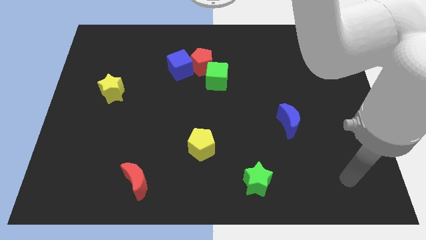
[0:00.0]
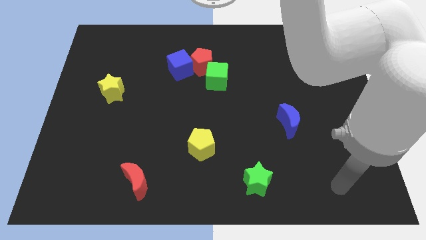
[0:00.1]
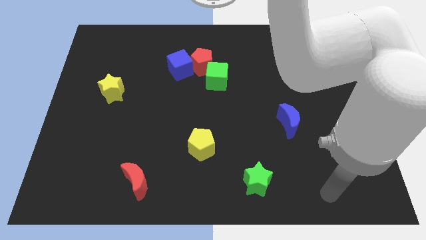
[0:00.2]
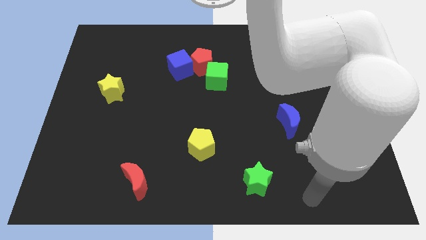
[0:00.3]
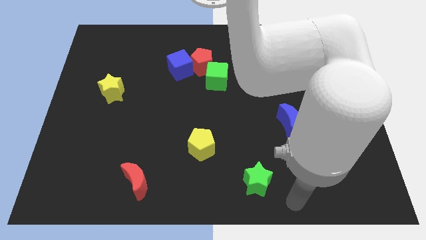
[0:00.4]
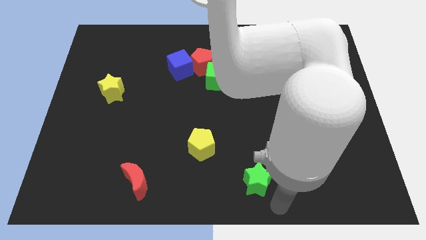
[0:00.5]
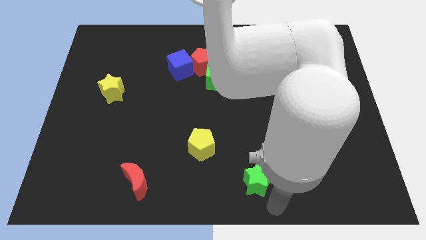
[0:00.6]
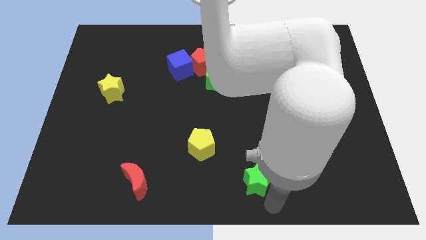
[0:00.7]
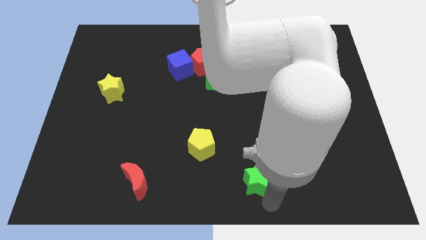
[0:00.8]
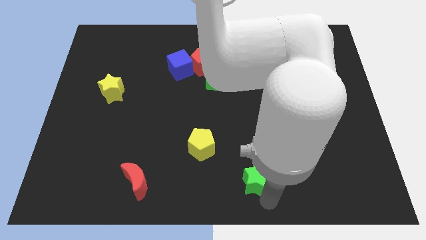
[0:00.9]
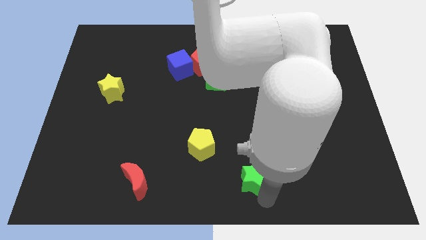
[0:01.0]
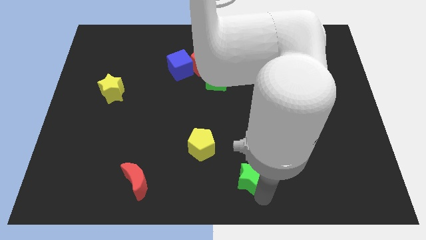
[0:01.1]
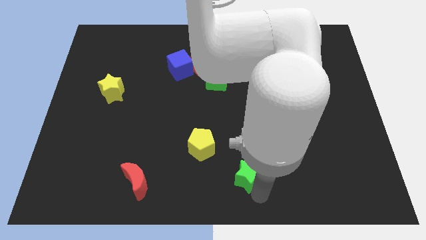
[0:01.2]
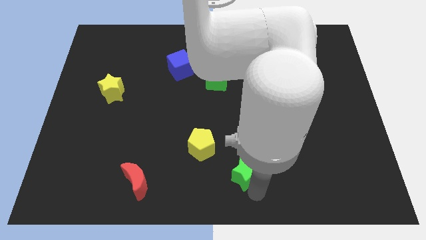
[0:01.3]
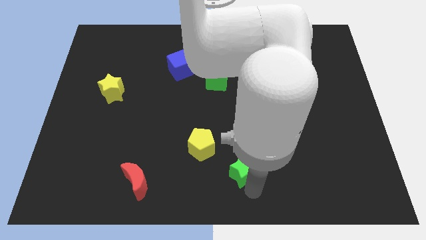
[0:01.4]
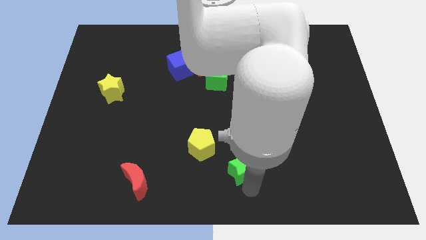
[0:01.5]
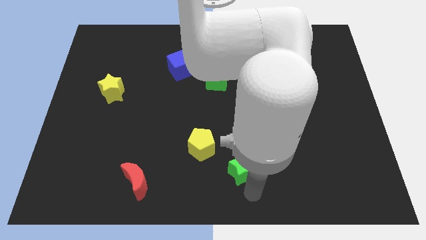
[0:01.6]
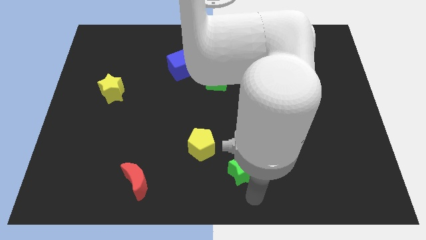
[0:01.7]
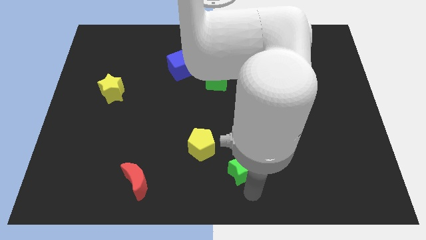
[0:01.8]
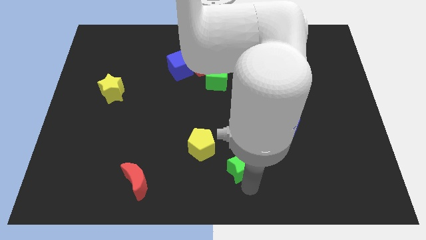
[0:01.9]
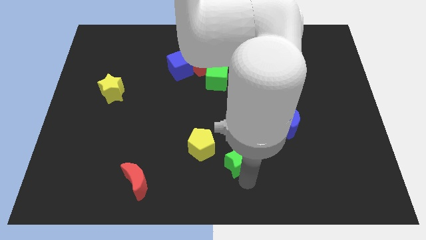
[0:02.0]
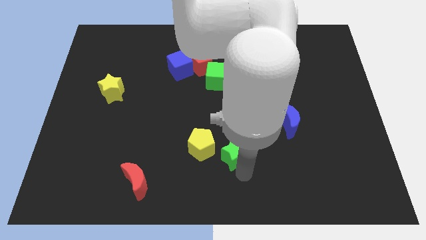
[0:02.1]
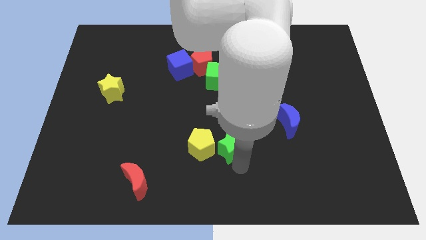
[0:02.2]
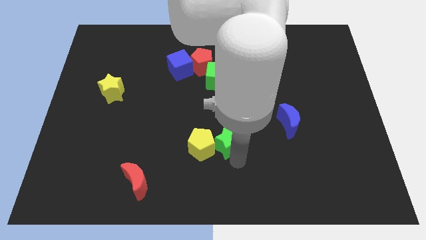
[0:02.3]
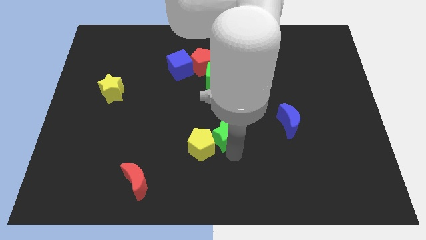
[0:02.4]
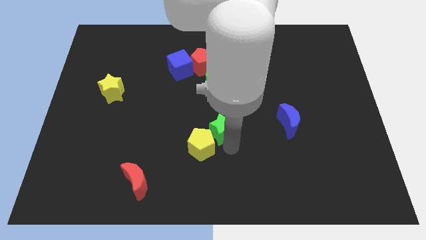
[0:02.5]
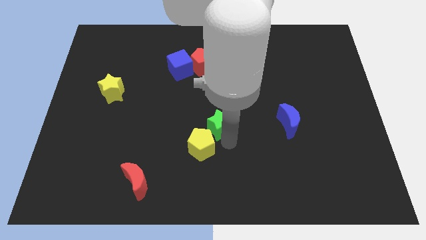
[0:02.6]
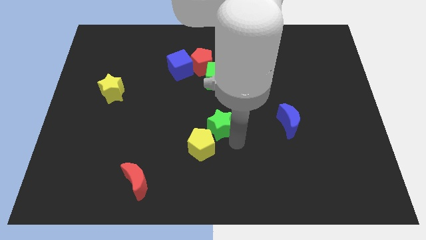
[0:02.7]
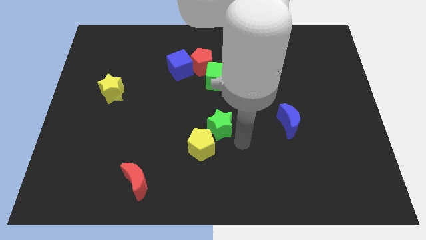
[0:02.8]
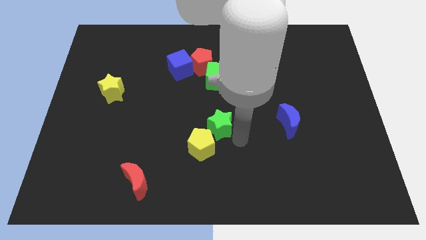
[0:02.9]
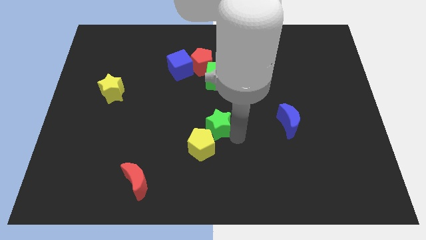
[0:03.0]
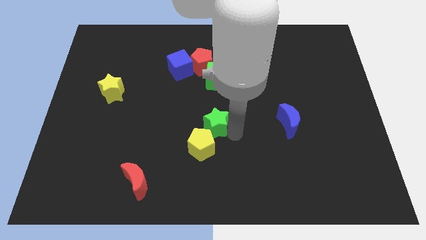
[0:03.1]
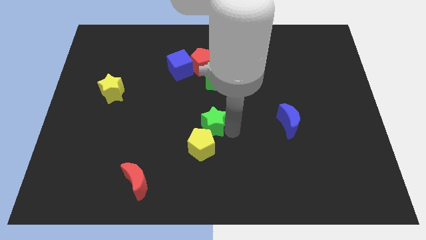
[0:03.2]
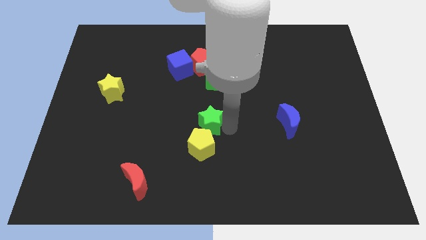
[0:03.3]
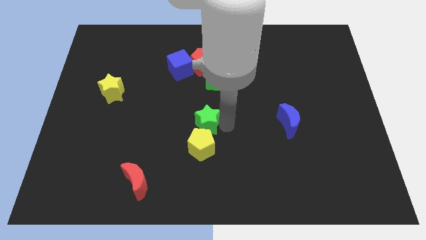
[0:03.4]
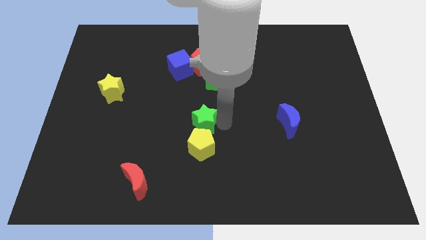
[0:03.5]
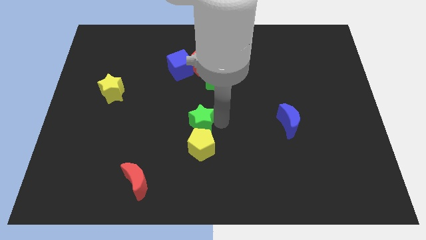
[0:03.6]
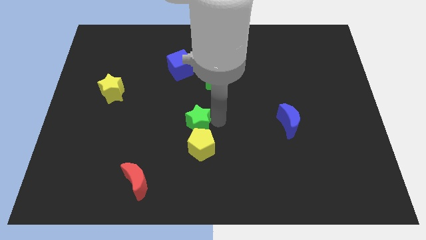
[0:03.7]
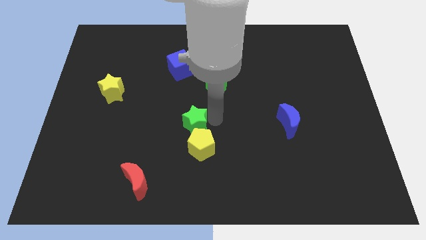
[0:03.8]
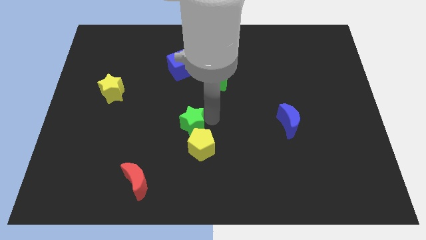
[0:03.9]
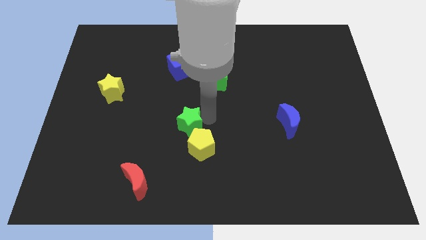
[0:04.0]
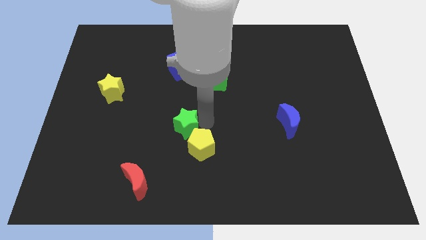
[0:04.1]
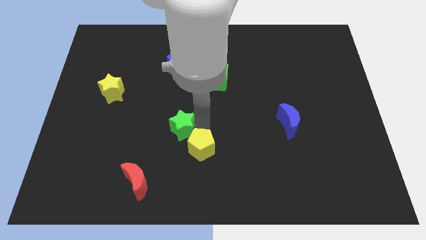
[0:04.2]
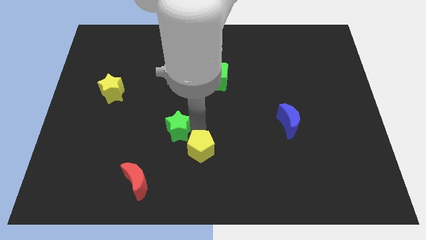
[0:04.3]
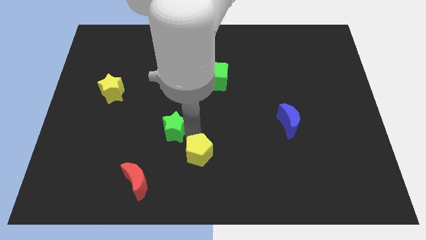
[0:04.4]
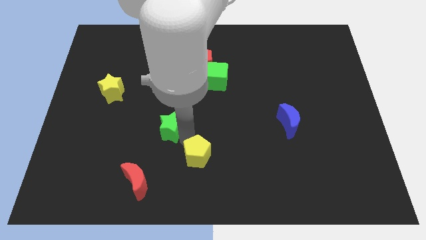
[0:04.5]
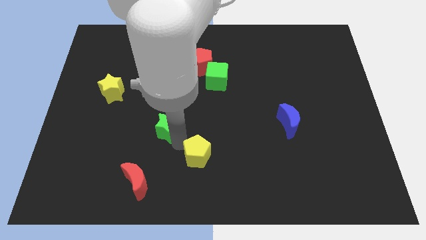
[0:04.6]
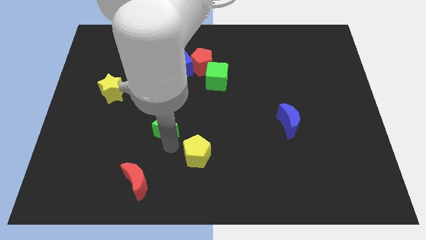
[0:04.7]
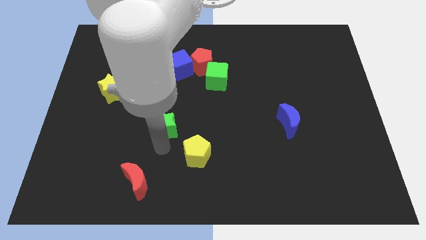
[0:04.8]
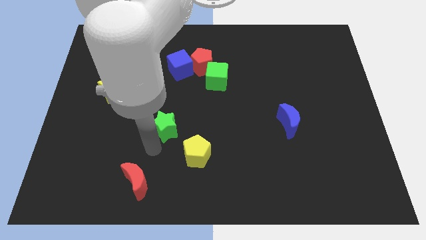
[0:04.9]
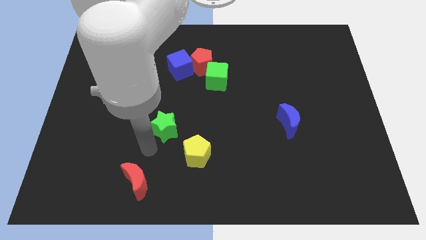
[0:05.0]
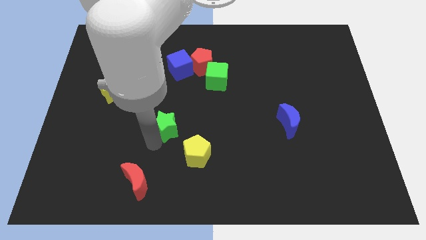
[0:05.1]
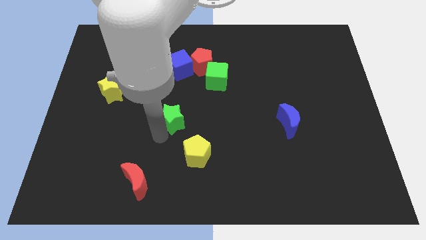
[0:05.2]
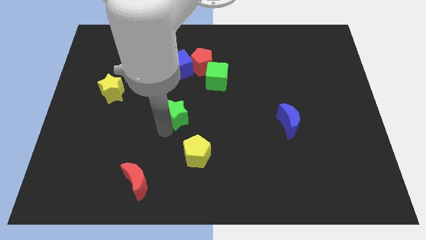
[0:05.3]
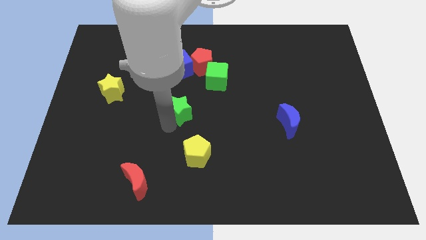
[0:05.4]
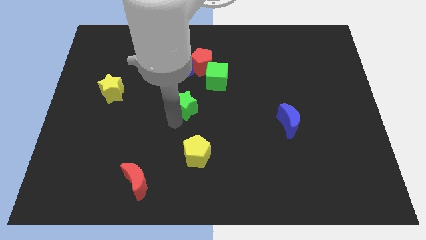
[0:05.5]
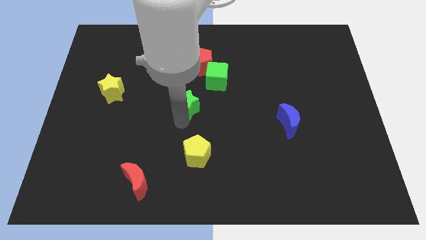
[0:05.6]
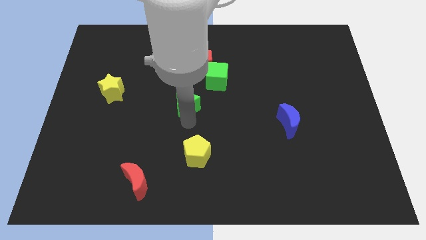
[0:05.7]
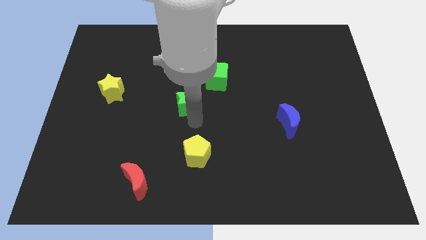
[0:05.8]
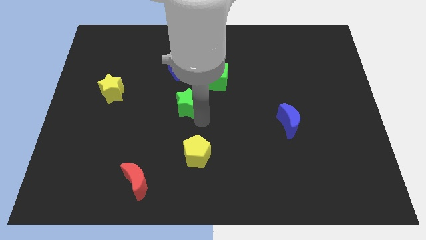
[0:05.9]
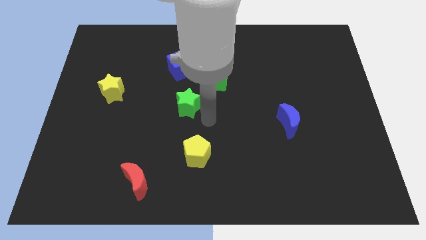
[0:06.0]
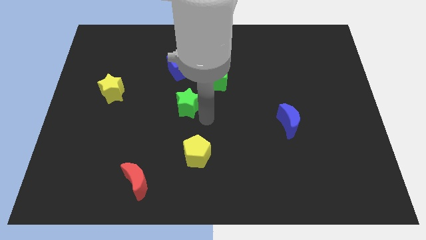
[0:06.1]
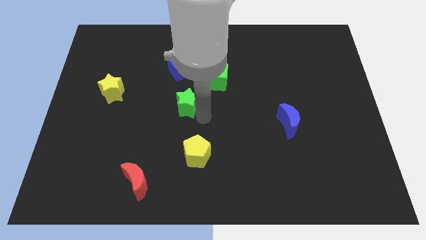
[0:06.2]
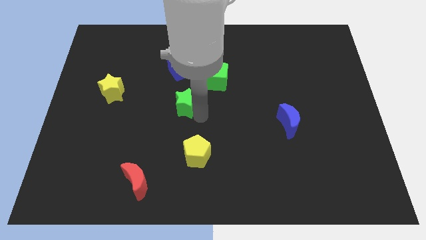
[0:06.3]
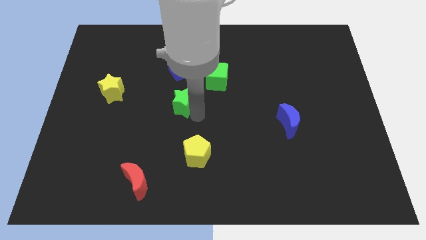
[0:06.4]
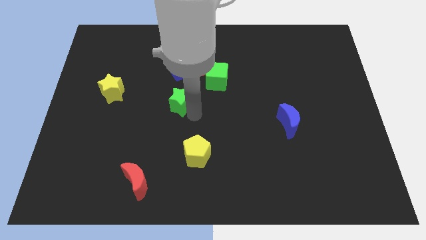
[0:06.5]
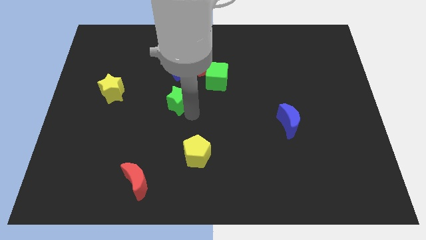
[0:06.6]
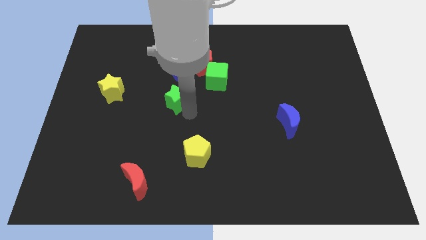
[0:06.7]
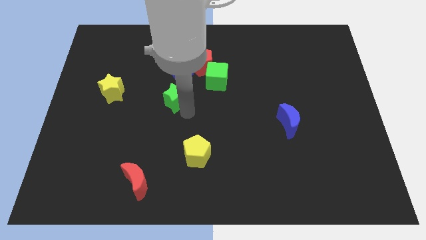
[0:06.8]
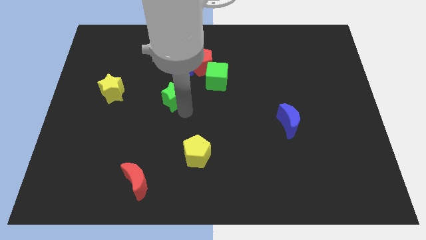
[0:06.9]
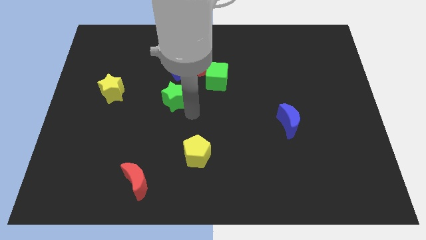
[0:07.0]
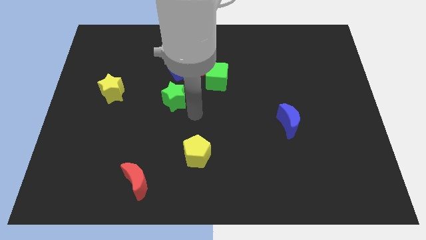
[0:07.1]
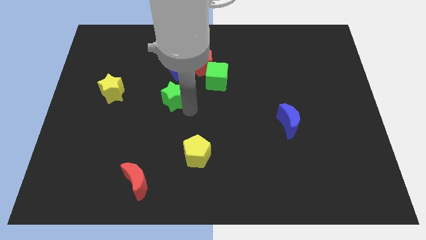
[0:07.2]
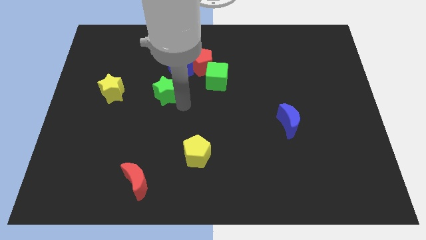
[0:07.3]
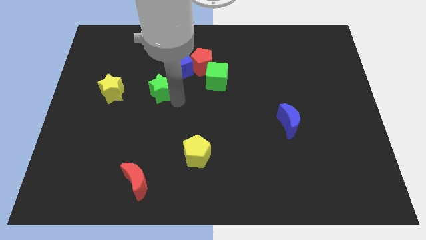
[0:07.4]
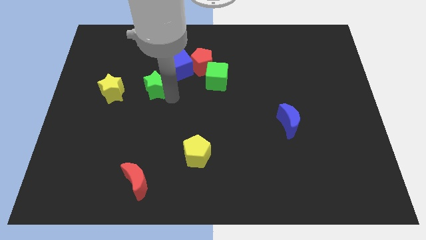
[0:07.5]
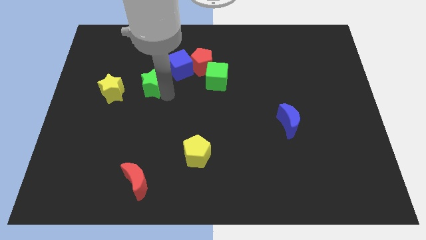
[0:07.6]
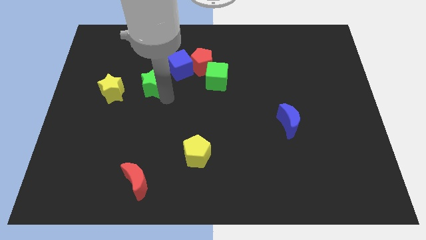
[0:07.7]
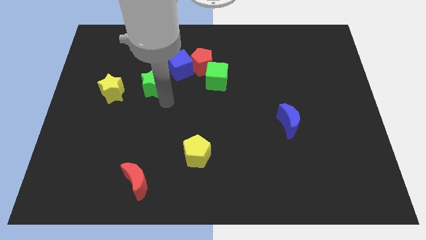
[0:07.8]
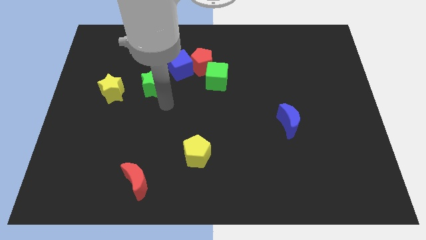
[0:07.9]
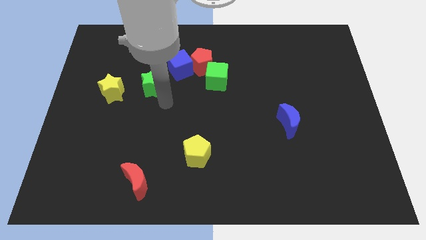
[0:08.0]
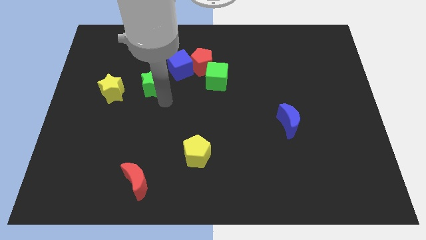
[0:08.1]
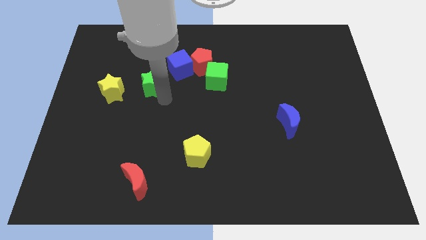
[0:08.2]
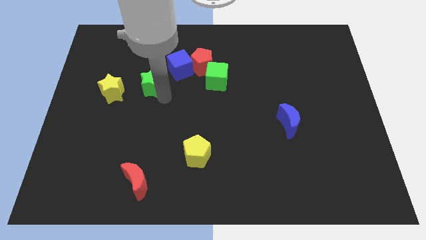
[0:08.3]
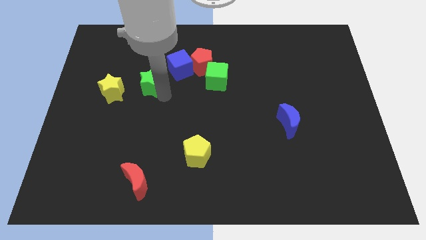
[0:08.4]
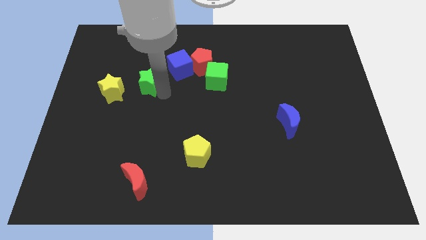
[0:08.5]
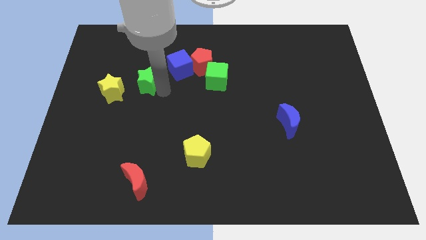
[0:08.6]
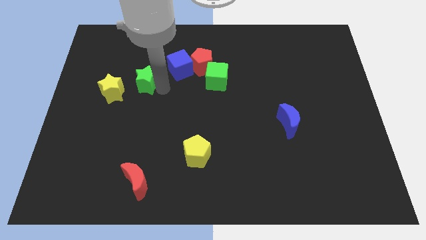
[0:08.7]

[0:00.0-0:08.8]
push the green star left of the blue cube
